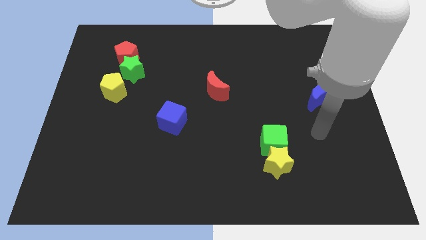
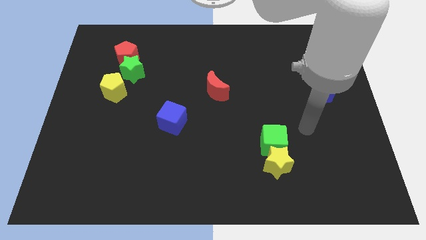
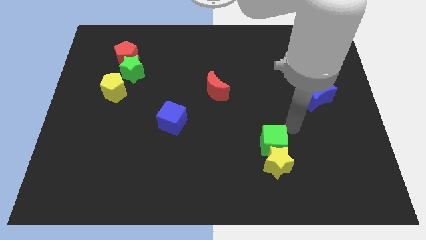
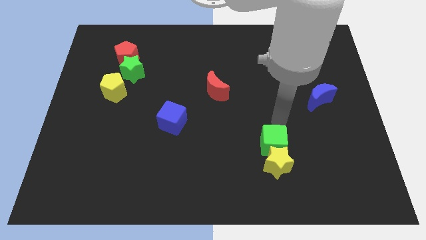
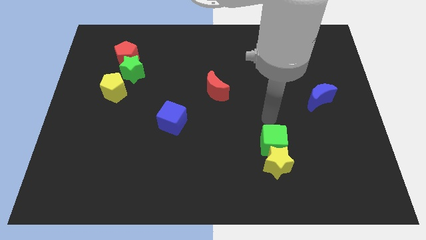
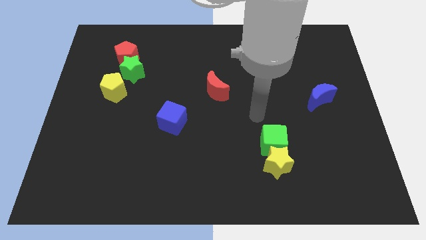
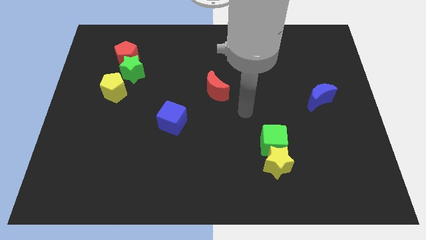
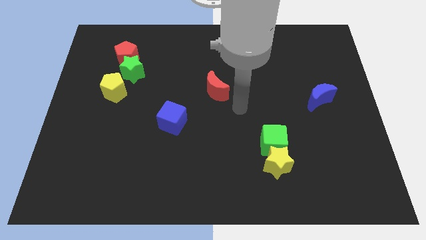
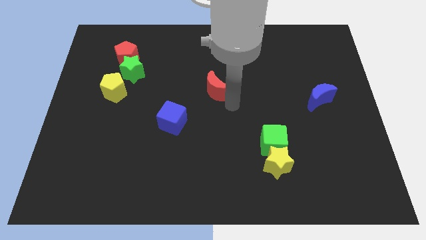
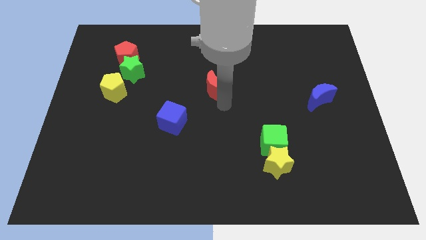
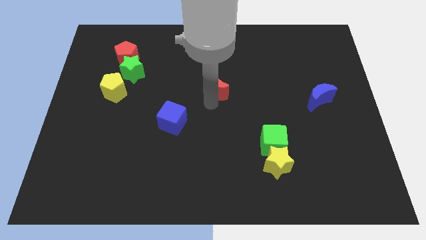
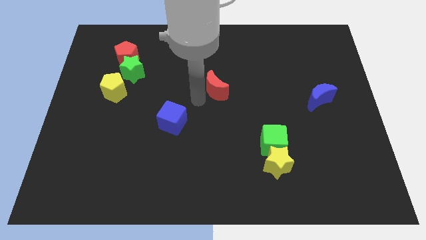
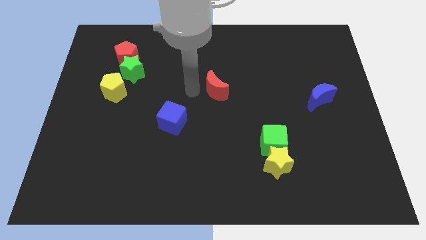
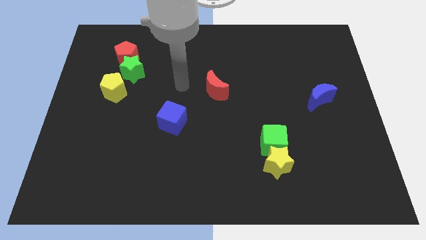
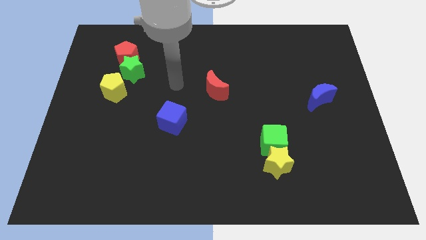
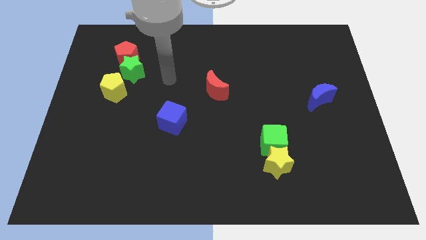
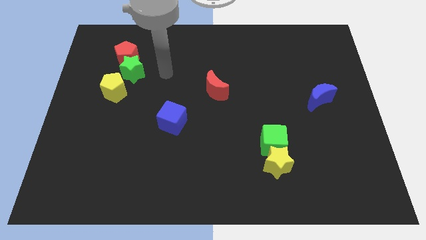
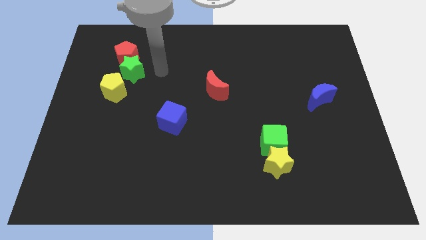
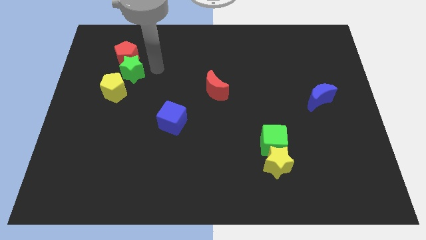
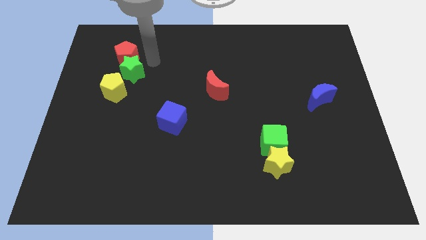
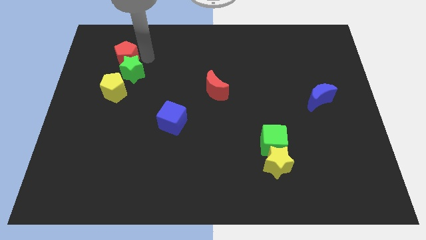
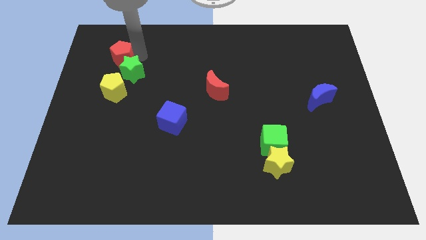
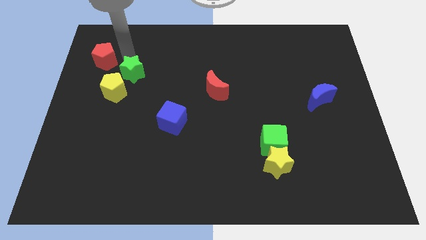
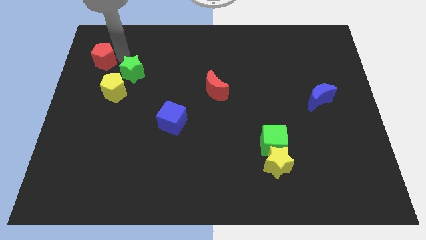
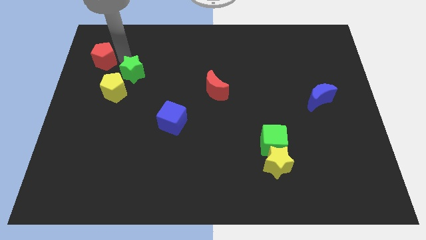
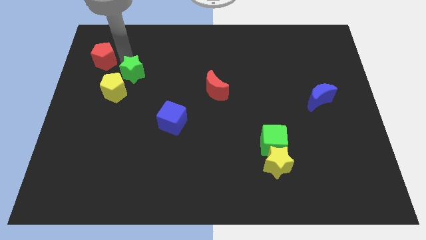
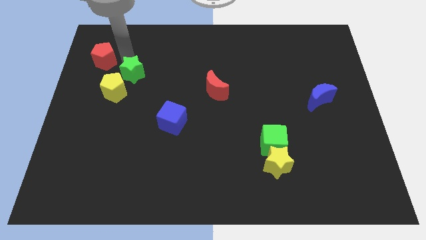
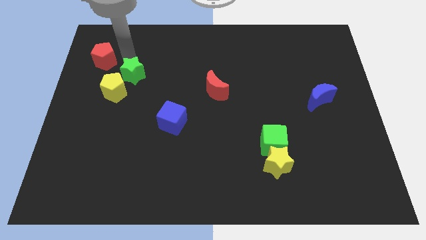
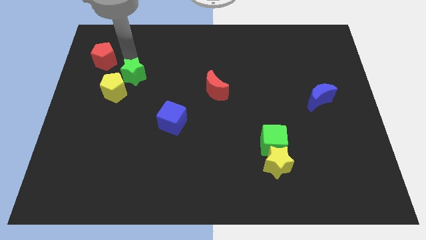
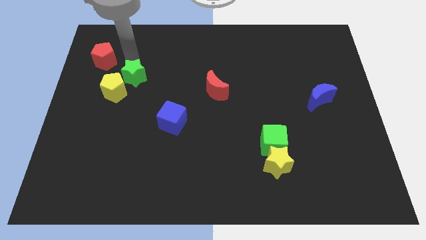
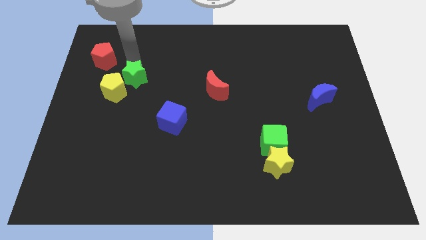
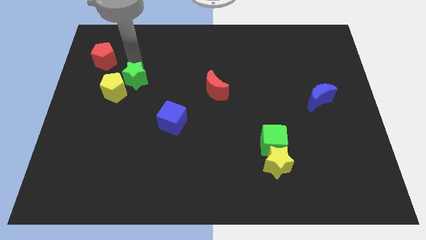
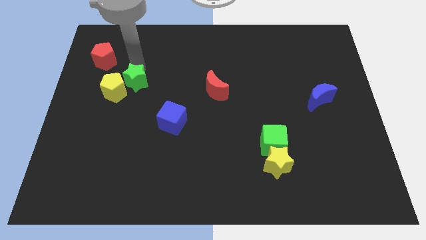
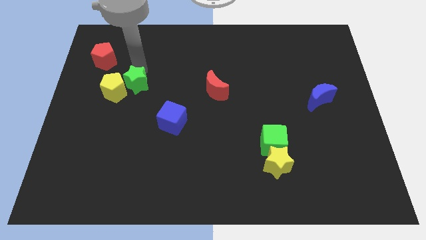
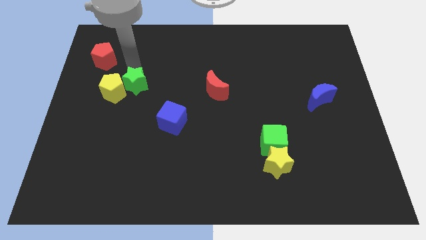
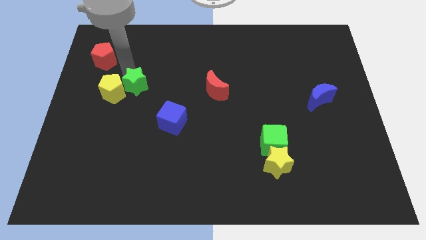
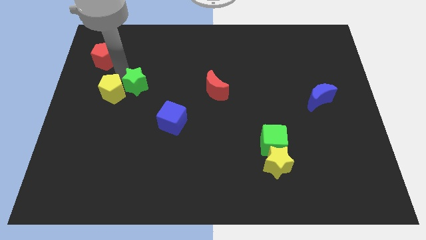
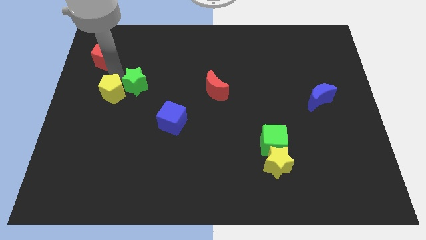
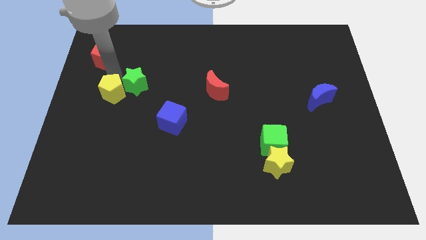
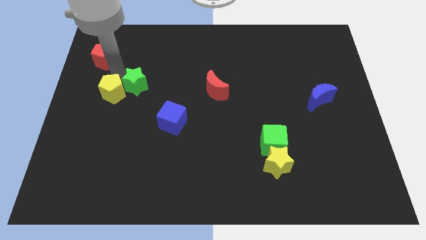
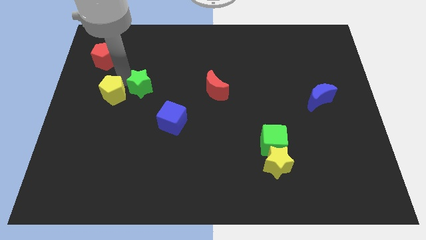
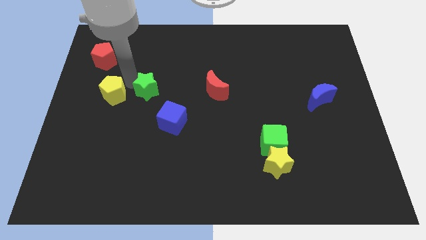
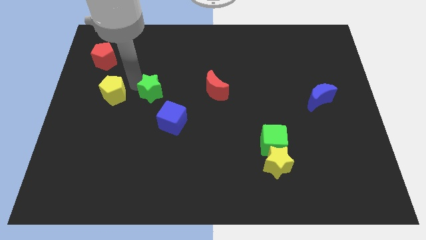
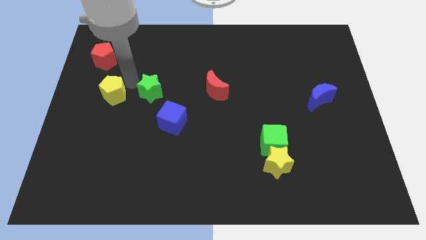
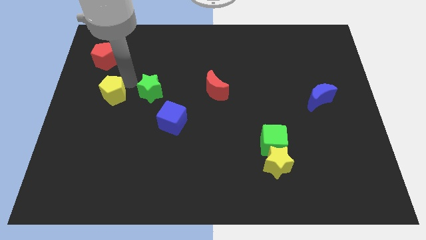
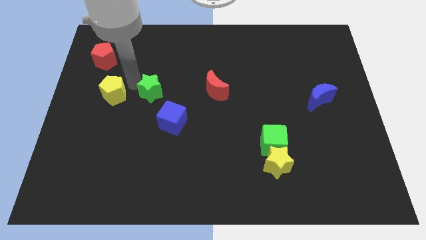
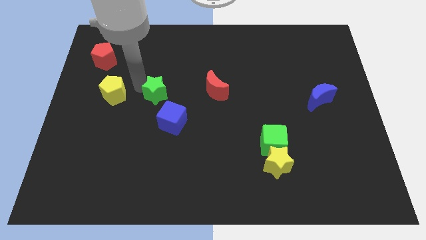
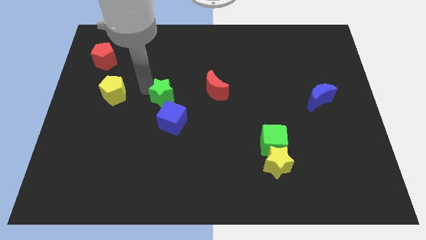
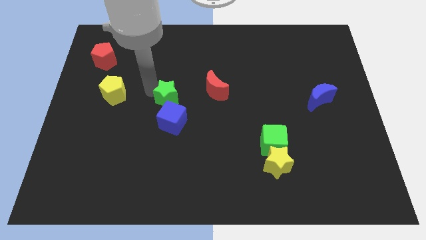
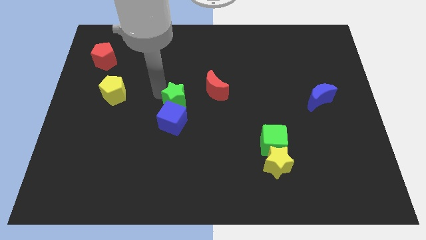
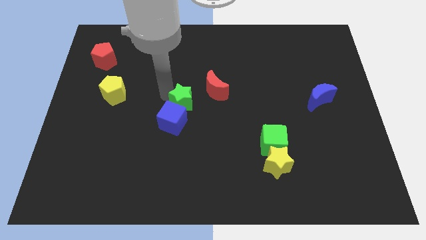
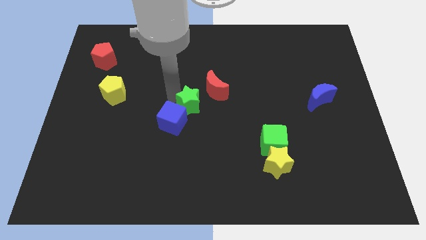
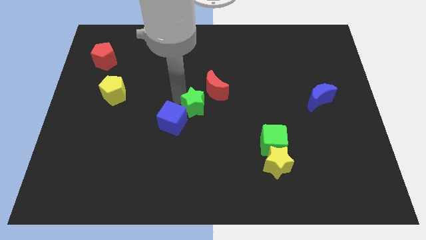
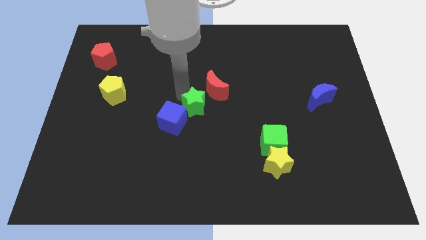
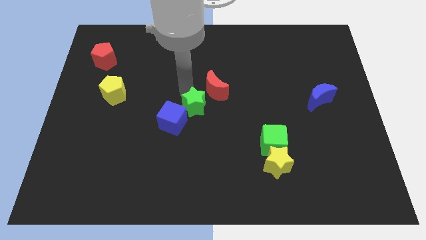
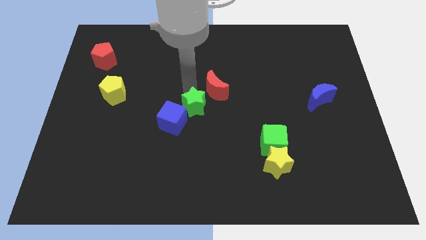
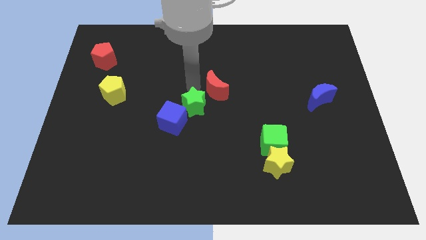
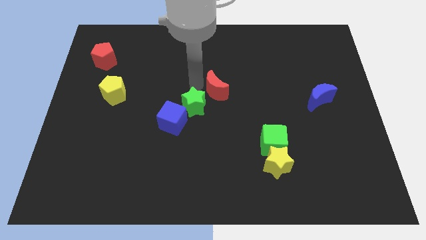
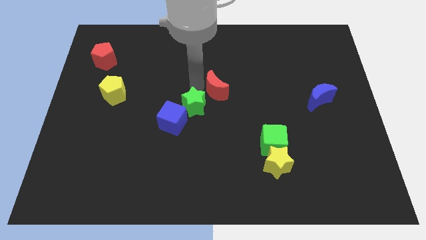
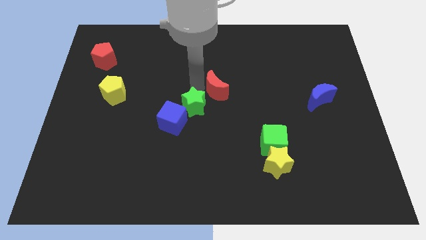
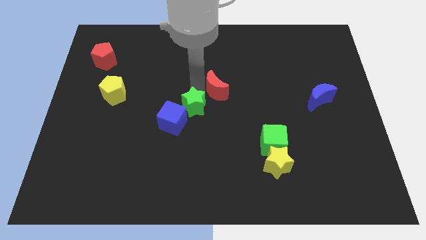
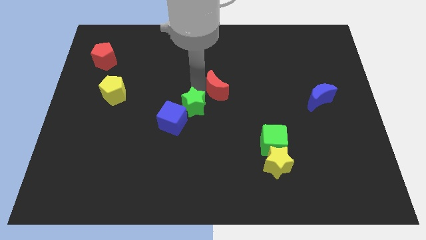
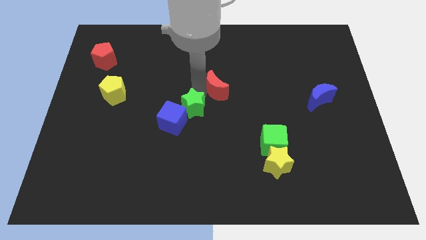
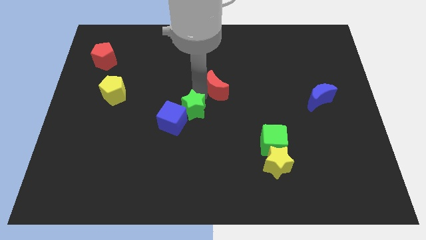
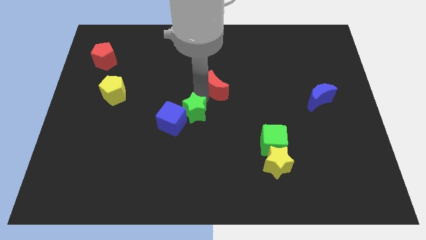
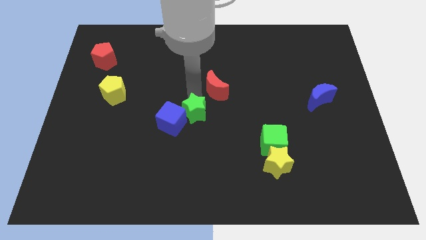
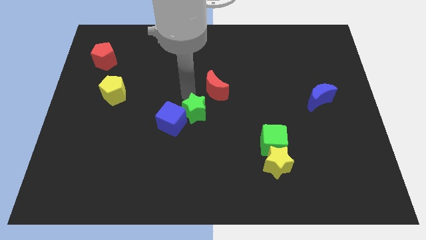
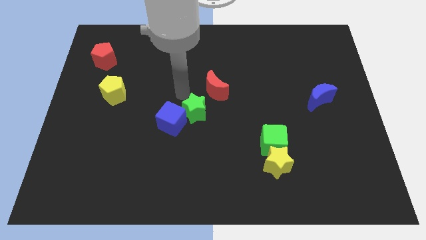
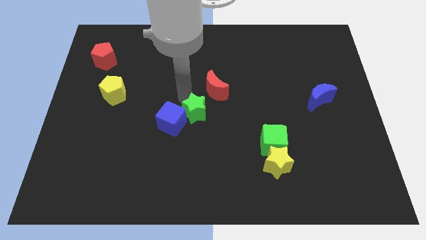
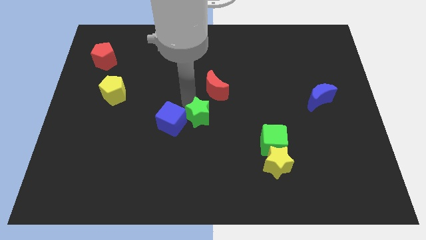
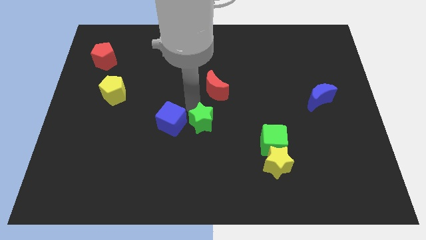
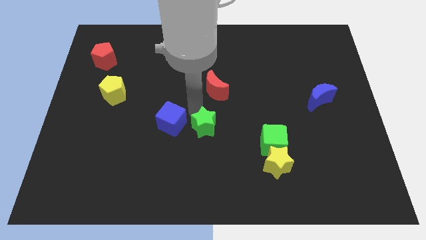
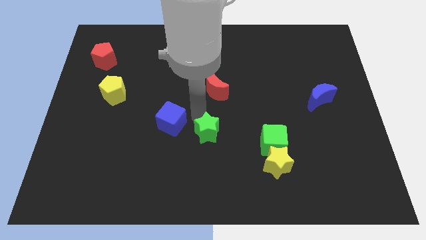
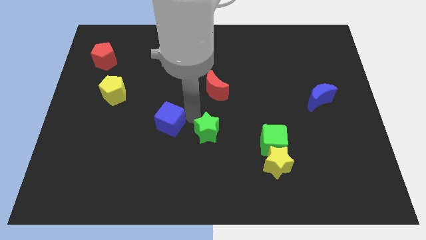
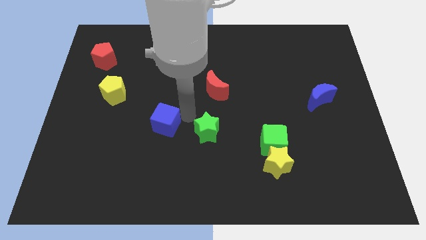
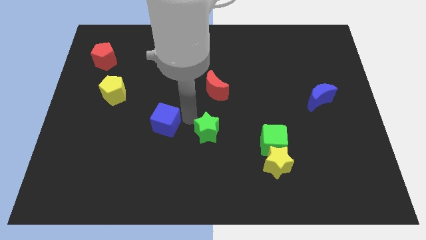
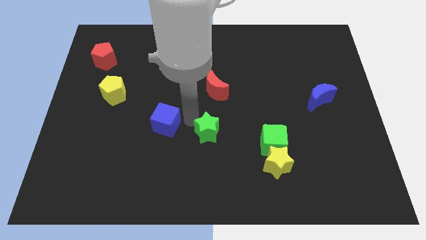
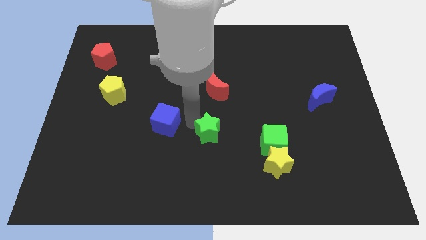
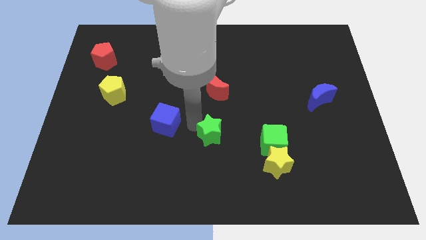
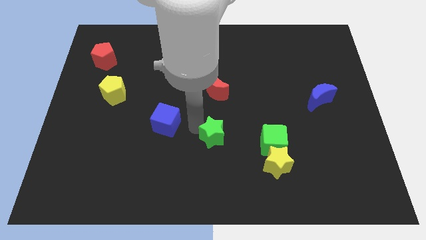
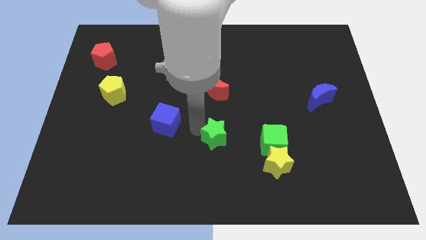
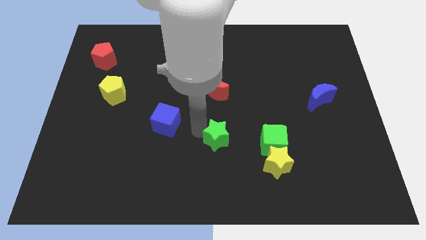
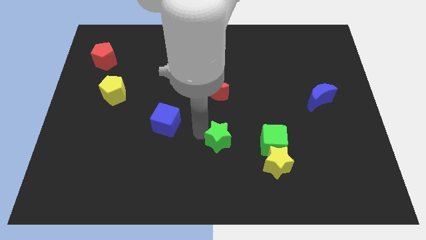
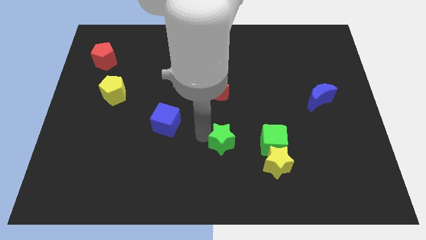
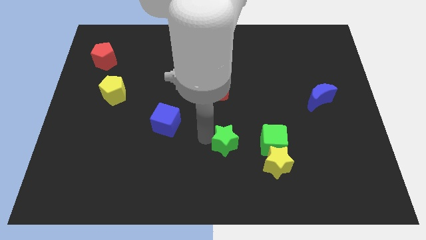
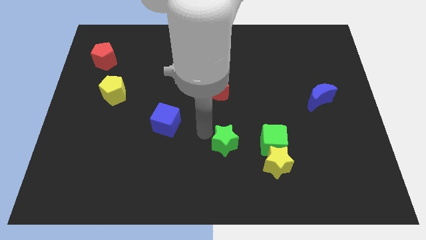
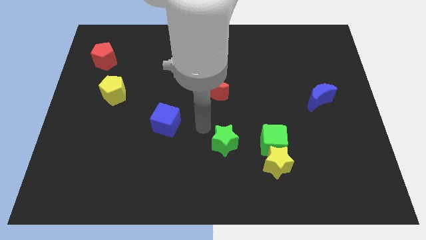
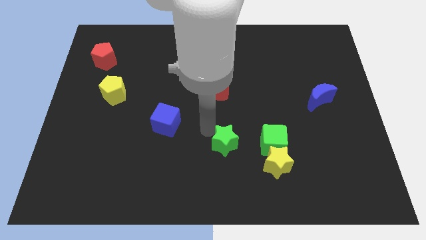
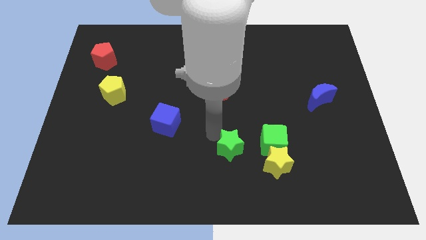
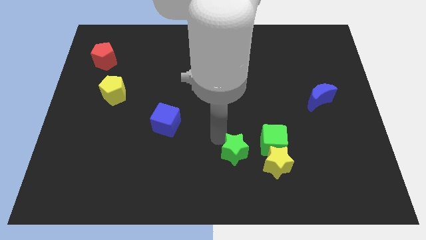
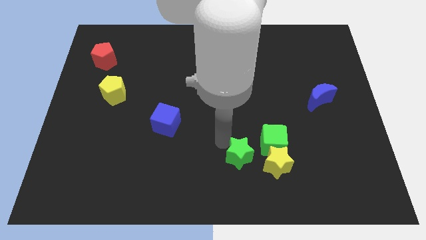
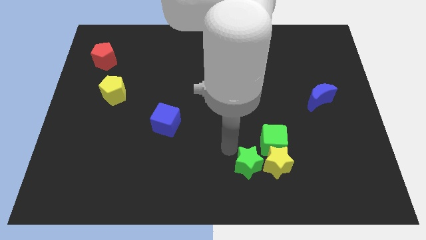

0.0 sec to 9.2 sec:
move the green star close to the yellow star
